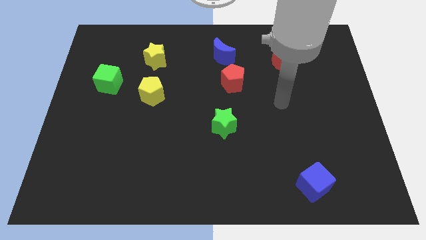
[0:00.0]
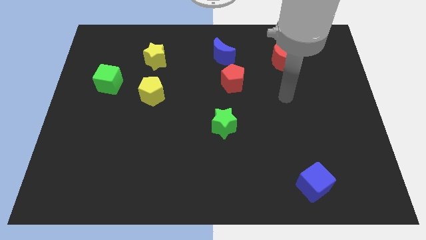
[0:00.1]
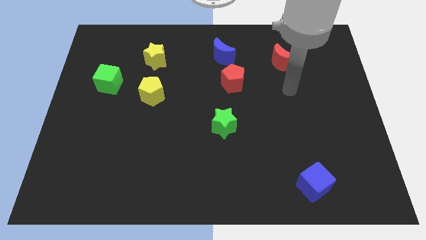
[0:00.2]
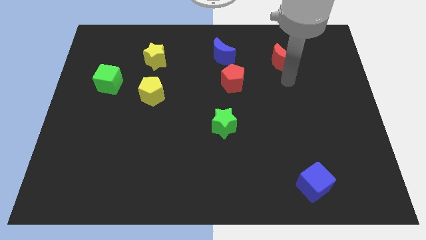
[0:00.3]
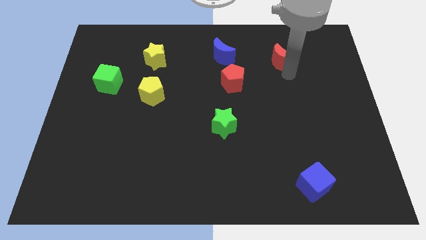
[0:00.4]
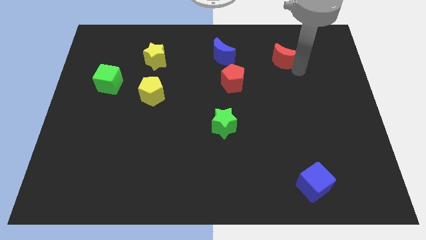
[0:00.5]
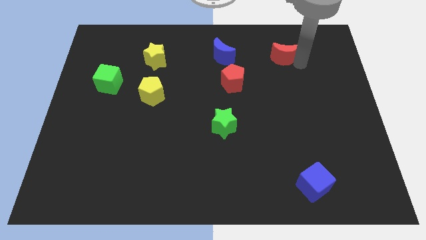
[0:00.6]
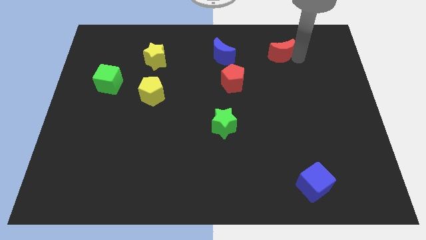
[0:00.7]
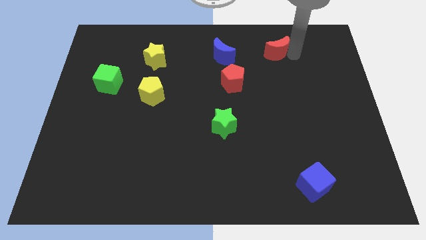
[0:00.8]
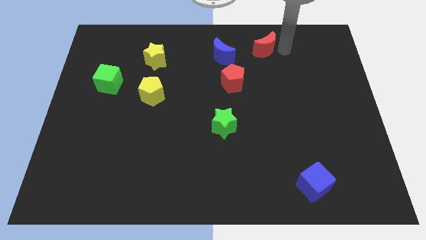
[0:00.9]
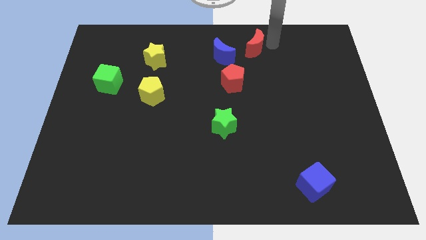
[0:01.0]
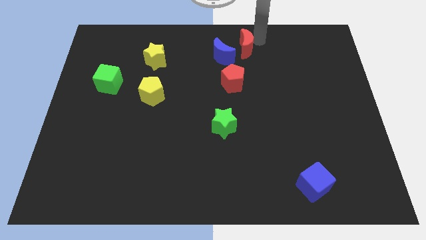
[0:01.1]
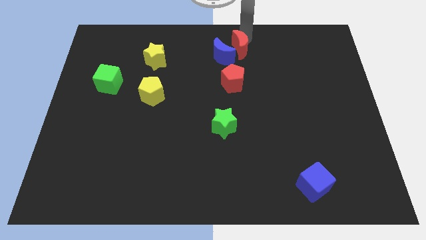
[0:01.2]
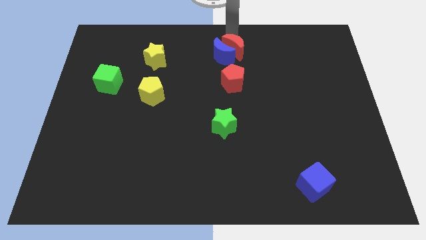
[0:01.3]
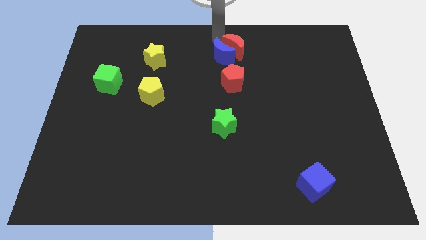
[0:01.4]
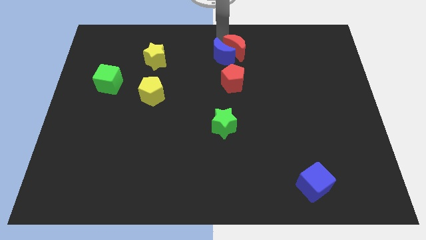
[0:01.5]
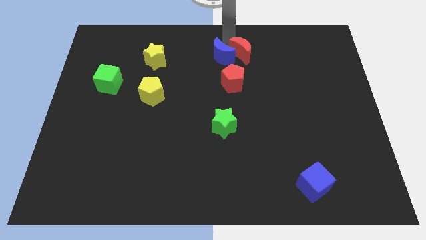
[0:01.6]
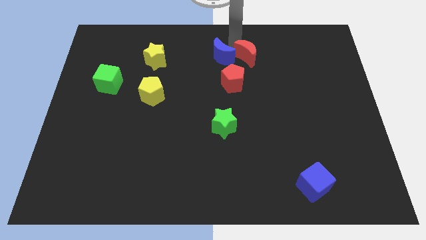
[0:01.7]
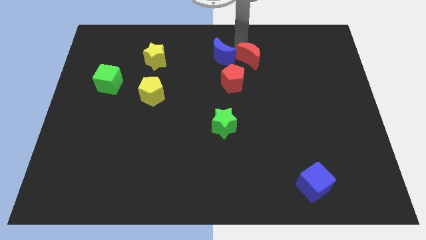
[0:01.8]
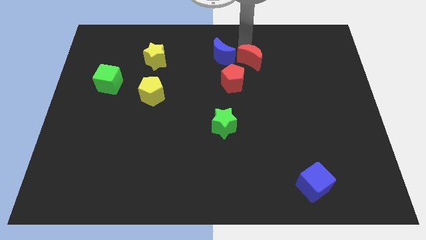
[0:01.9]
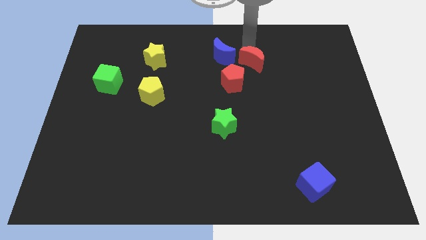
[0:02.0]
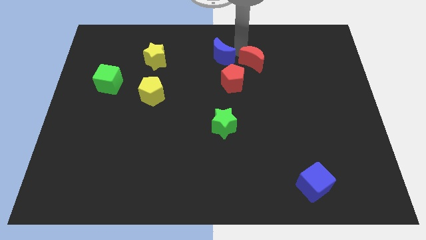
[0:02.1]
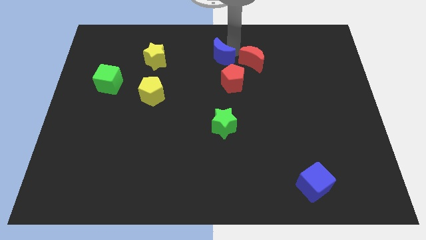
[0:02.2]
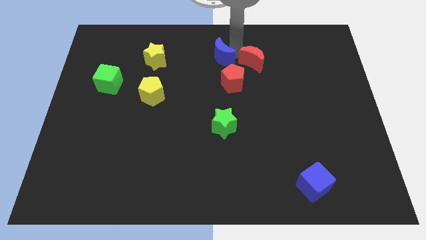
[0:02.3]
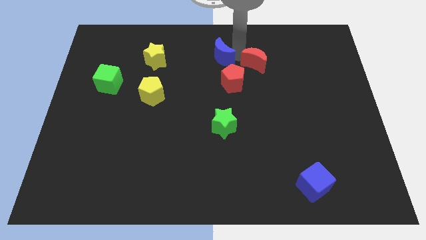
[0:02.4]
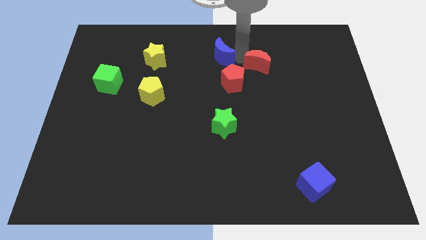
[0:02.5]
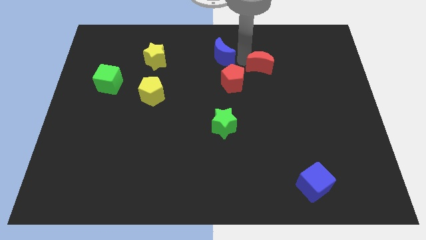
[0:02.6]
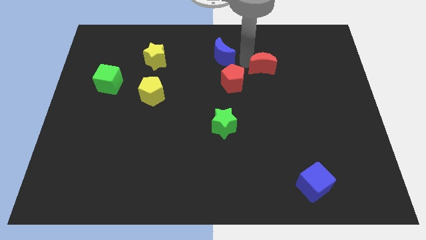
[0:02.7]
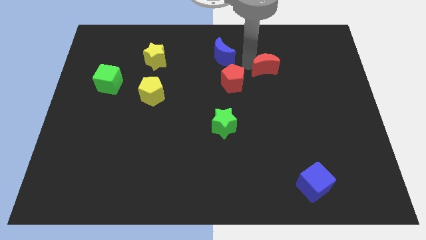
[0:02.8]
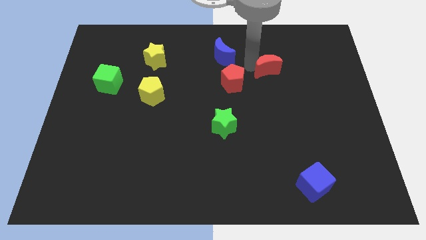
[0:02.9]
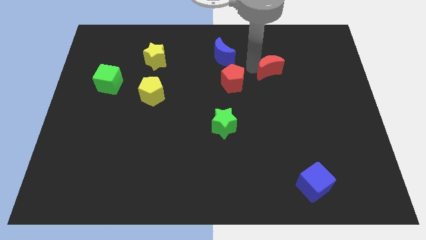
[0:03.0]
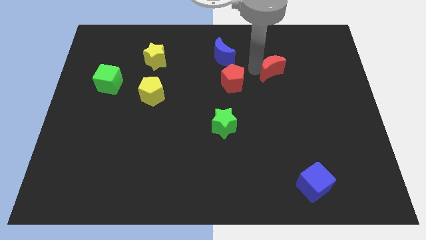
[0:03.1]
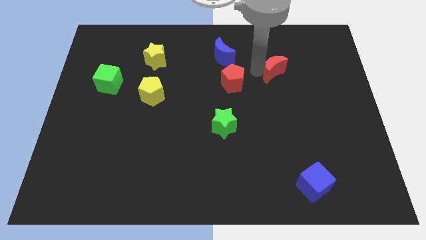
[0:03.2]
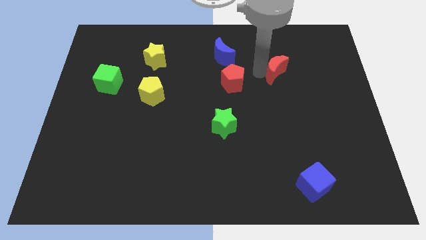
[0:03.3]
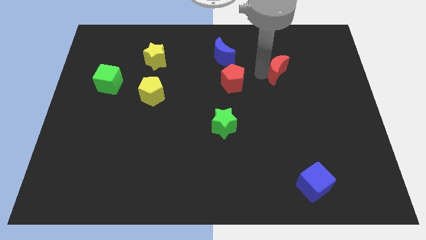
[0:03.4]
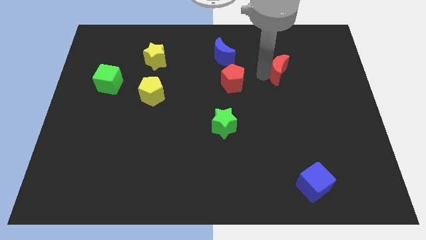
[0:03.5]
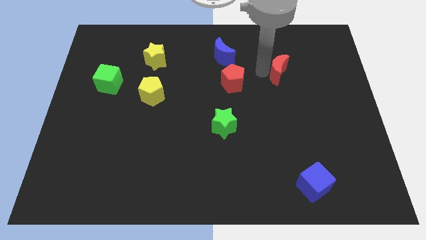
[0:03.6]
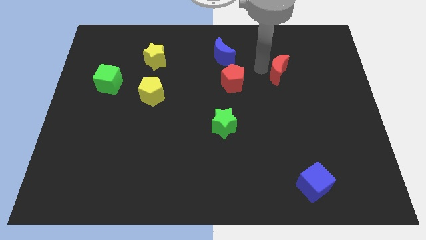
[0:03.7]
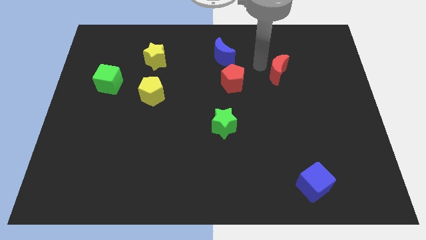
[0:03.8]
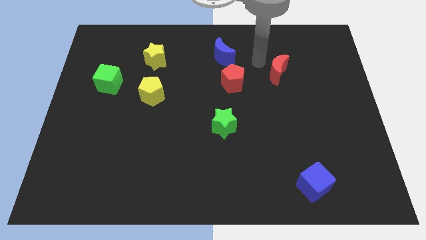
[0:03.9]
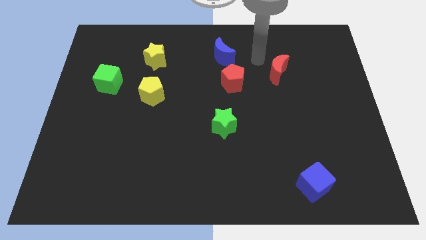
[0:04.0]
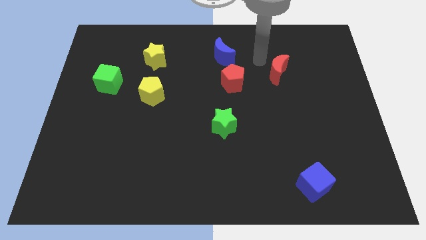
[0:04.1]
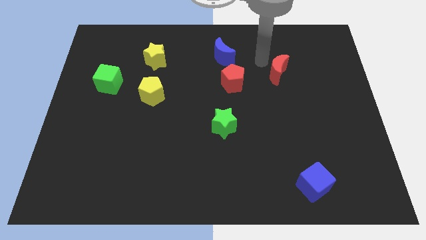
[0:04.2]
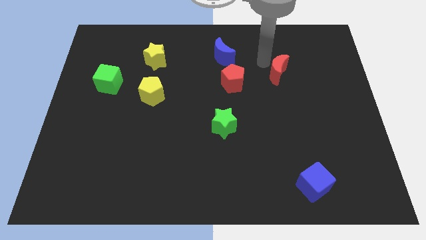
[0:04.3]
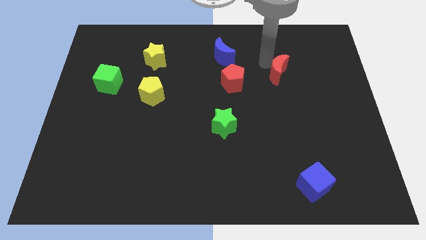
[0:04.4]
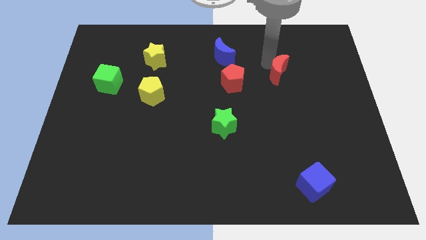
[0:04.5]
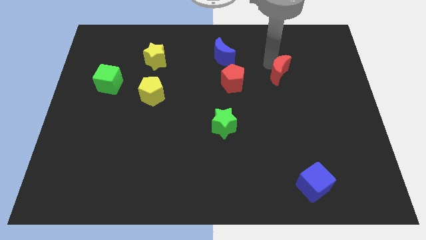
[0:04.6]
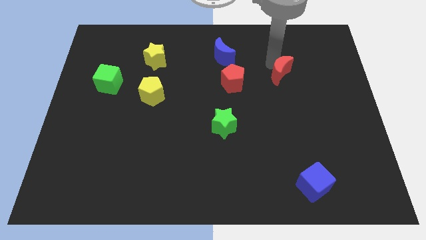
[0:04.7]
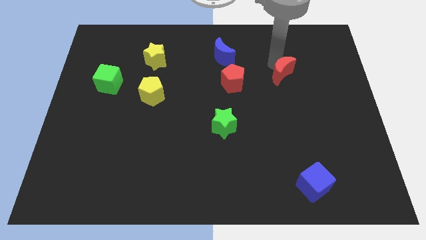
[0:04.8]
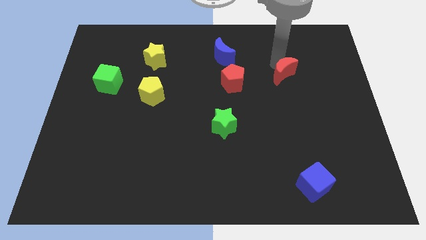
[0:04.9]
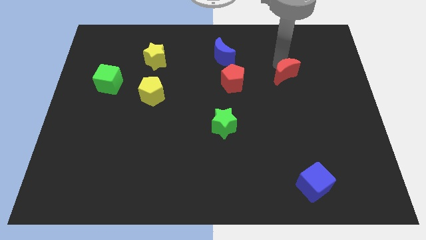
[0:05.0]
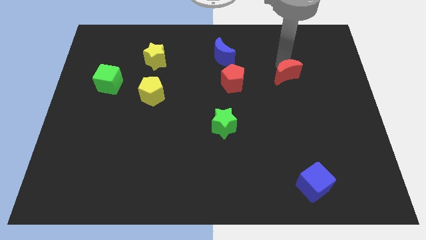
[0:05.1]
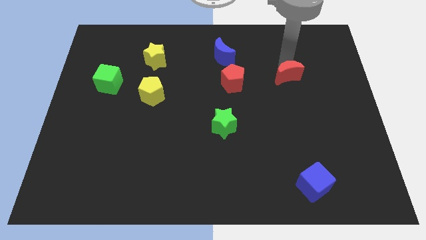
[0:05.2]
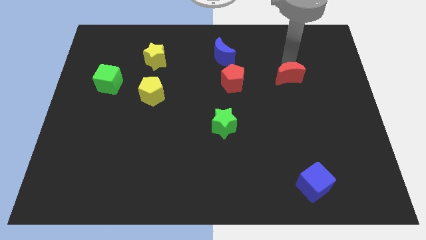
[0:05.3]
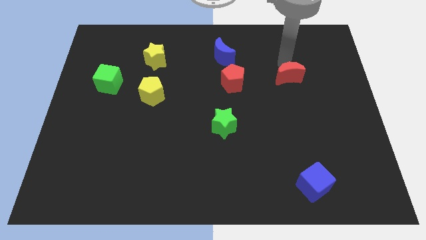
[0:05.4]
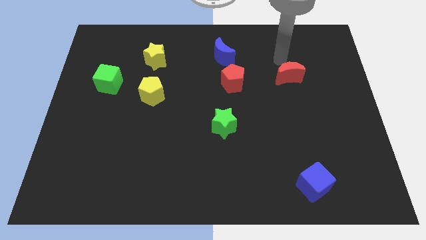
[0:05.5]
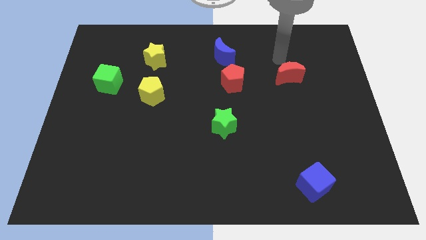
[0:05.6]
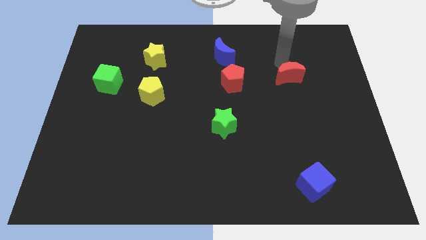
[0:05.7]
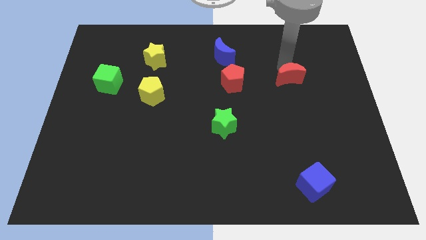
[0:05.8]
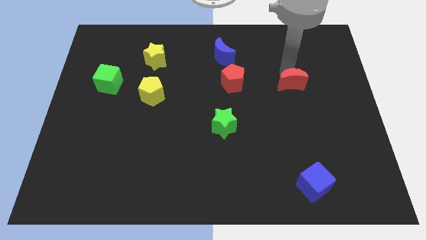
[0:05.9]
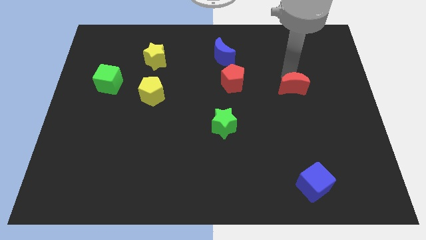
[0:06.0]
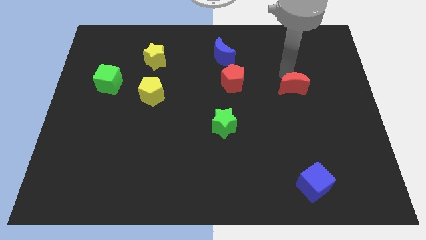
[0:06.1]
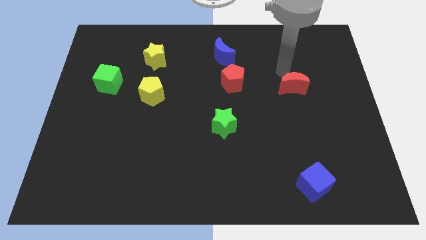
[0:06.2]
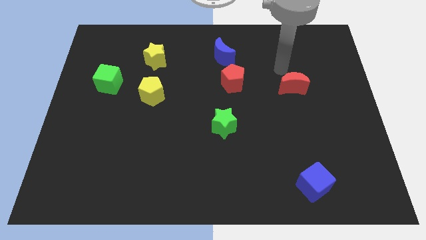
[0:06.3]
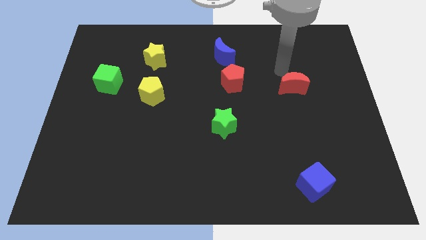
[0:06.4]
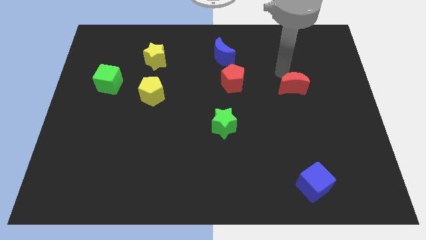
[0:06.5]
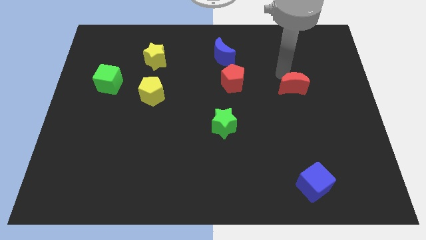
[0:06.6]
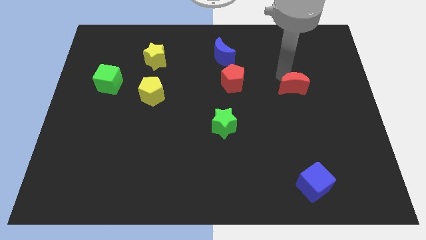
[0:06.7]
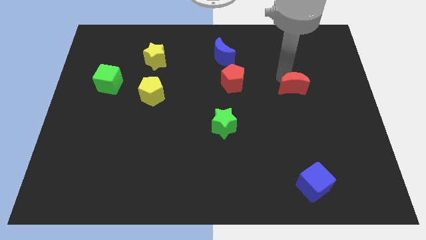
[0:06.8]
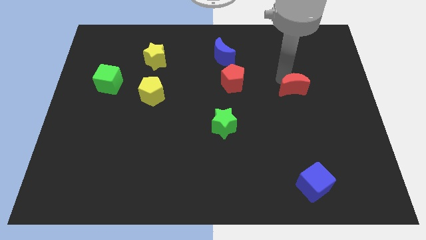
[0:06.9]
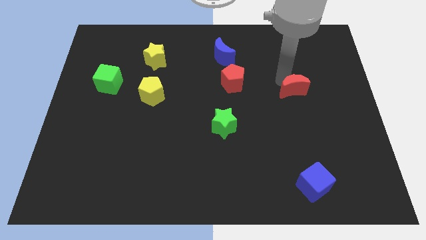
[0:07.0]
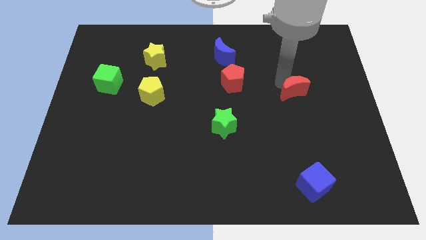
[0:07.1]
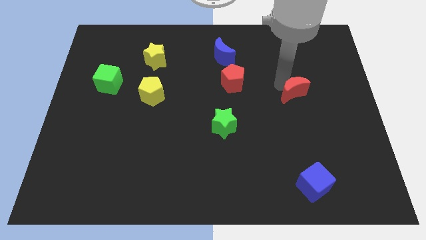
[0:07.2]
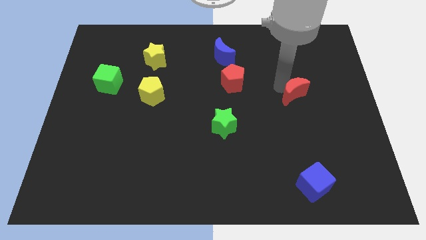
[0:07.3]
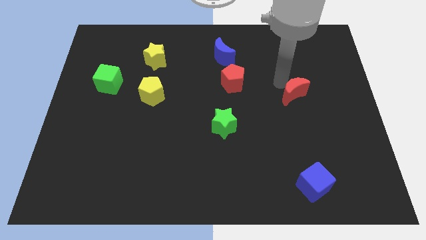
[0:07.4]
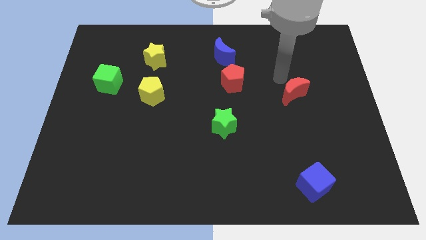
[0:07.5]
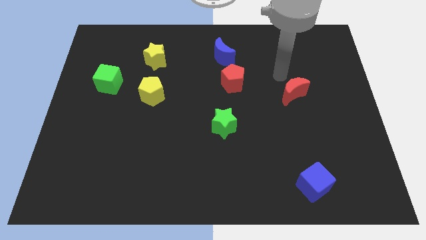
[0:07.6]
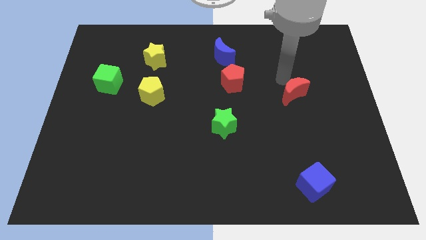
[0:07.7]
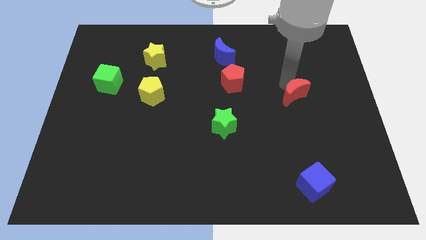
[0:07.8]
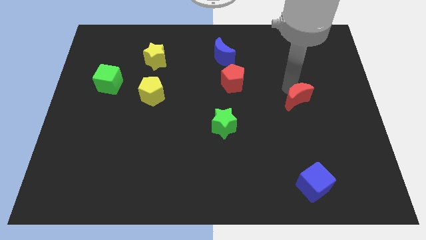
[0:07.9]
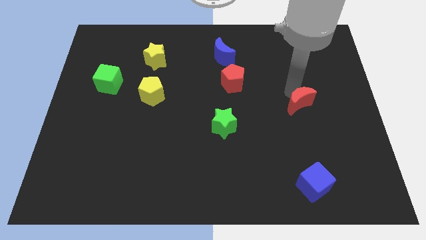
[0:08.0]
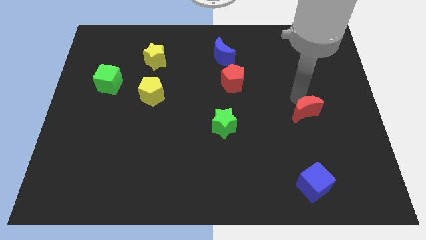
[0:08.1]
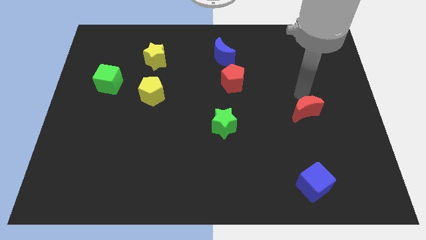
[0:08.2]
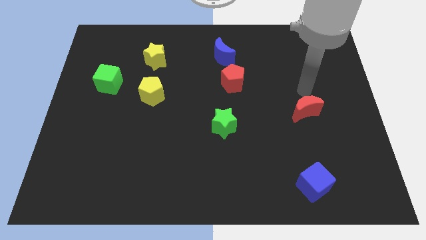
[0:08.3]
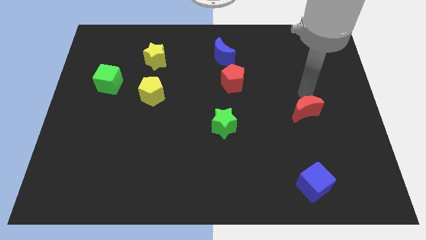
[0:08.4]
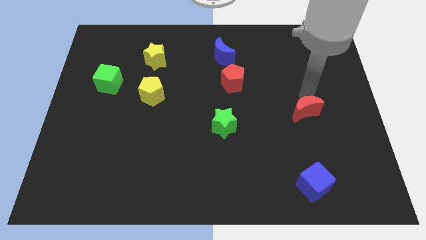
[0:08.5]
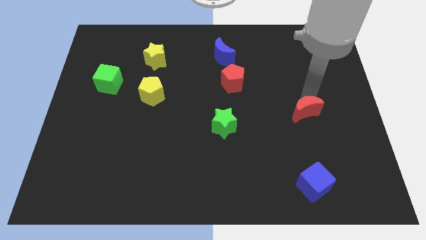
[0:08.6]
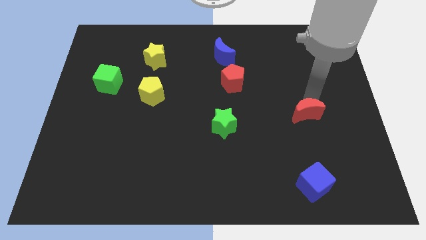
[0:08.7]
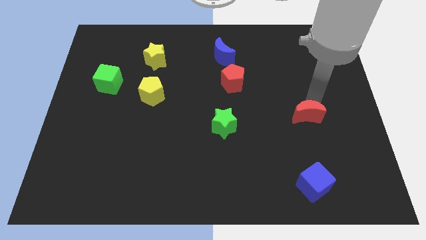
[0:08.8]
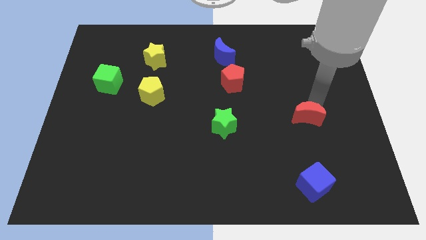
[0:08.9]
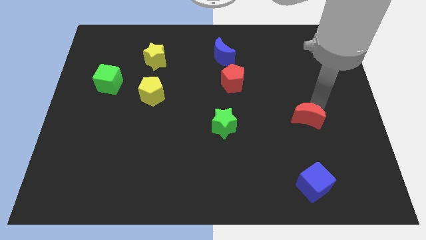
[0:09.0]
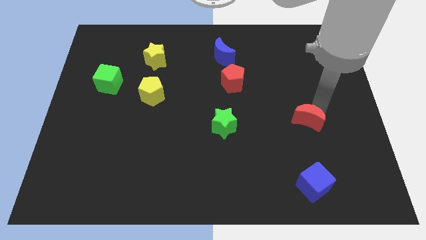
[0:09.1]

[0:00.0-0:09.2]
move the red moon above the blue cube
